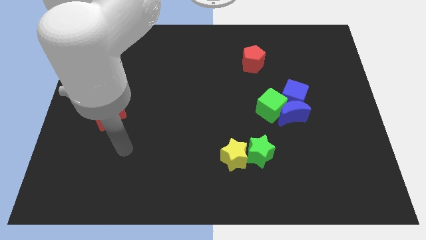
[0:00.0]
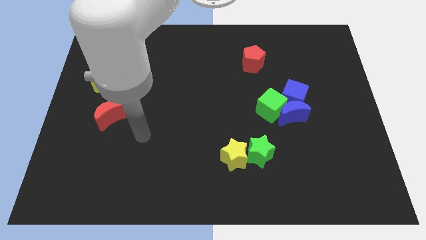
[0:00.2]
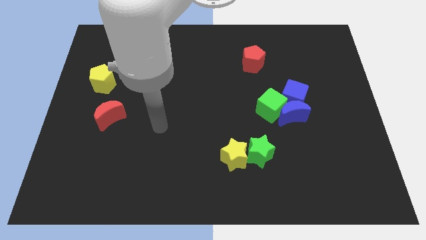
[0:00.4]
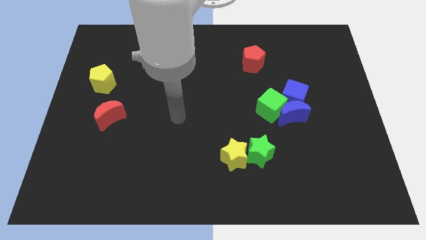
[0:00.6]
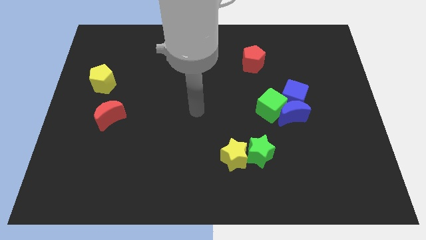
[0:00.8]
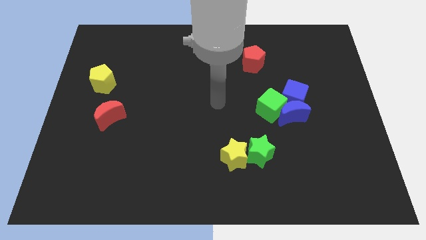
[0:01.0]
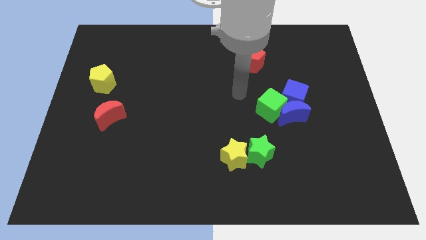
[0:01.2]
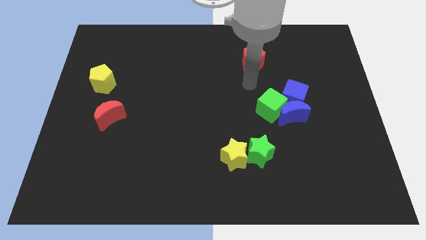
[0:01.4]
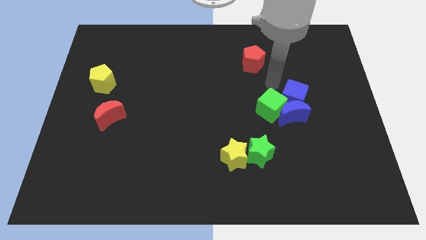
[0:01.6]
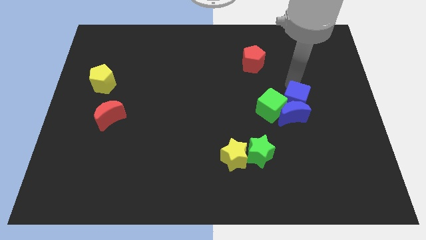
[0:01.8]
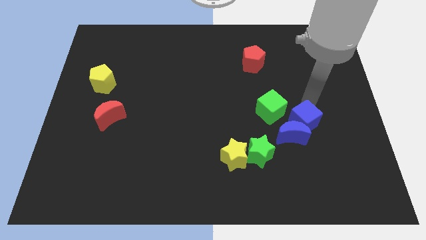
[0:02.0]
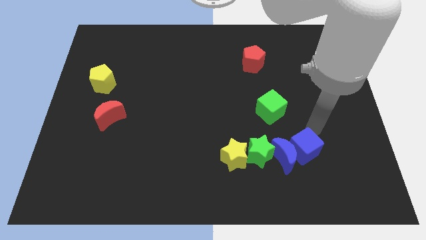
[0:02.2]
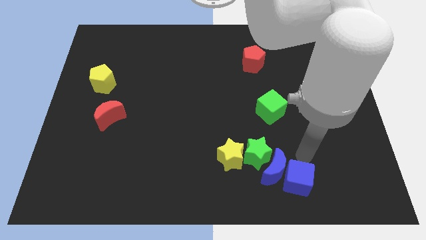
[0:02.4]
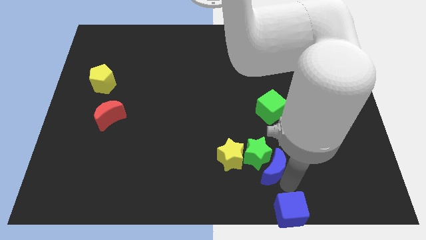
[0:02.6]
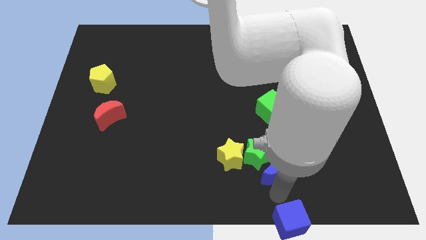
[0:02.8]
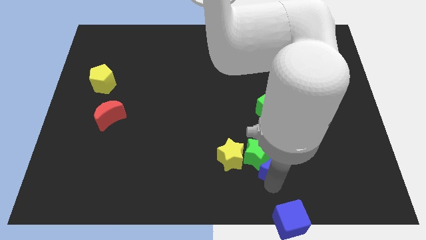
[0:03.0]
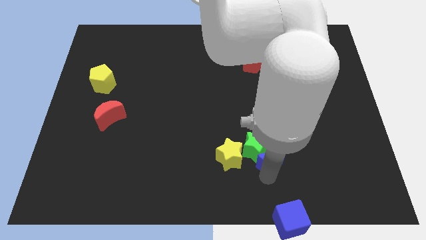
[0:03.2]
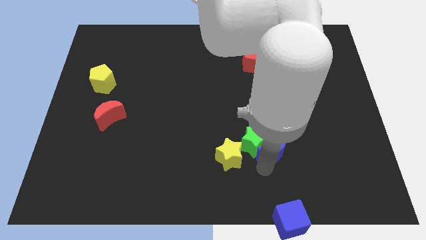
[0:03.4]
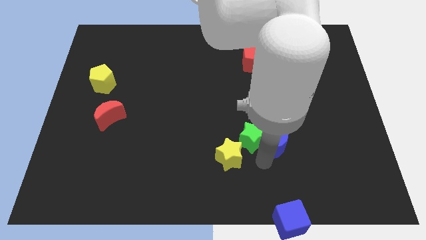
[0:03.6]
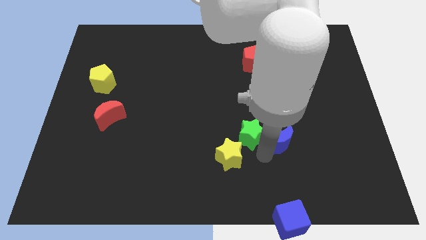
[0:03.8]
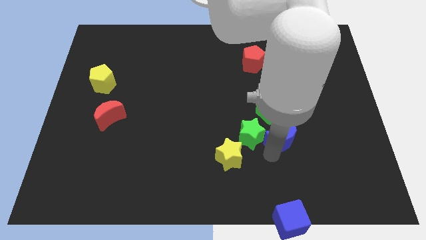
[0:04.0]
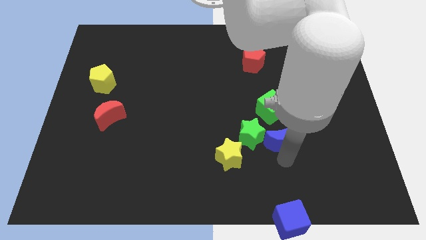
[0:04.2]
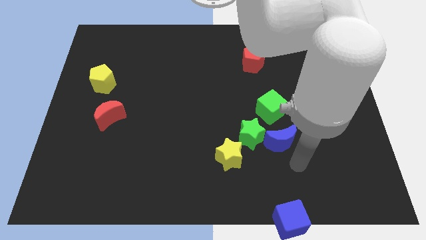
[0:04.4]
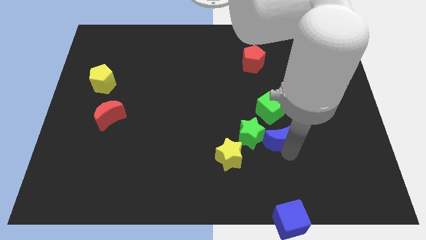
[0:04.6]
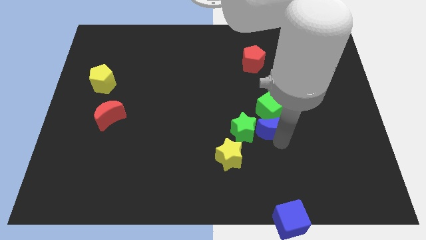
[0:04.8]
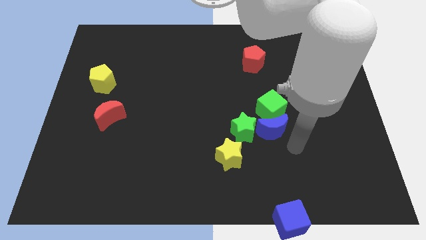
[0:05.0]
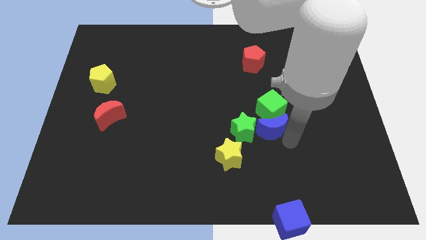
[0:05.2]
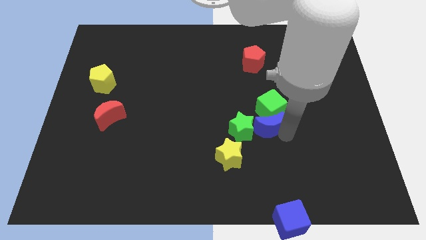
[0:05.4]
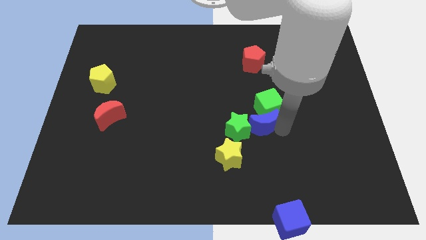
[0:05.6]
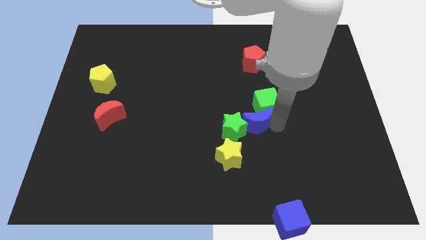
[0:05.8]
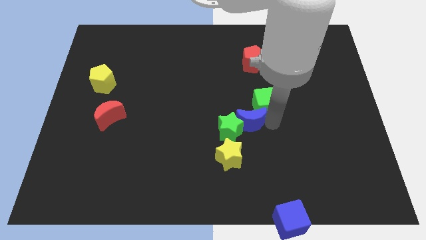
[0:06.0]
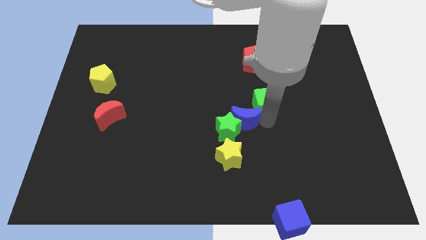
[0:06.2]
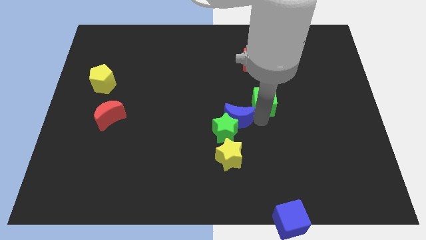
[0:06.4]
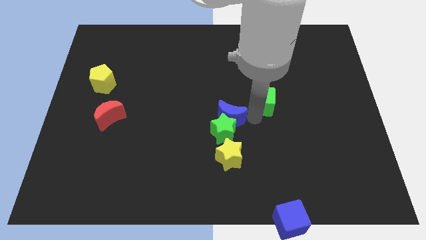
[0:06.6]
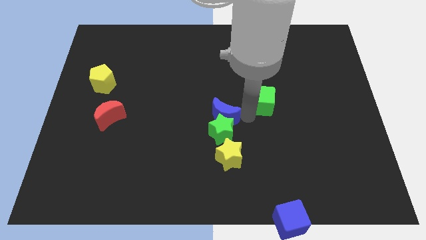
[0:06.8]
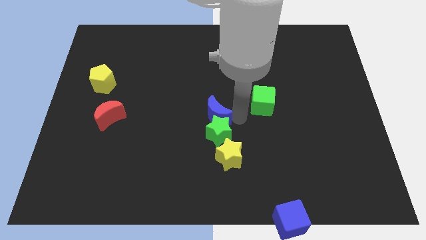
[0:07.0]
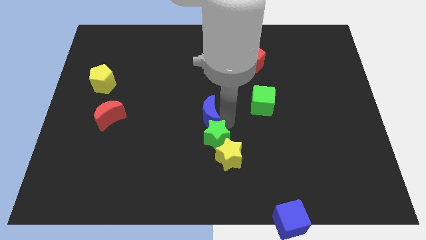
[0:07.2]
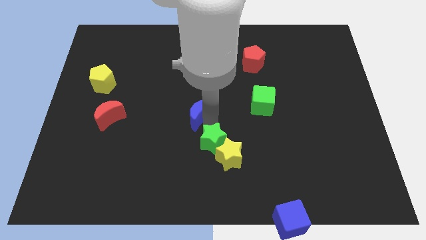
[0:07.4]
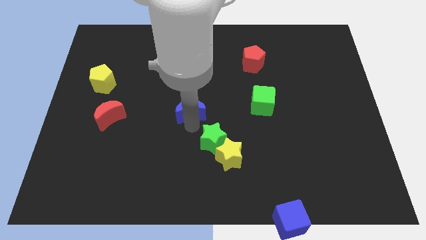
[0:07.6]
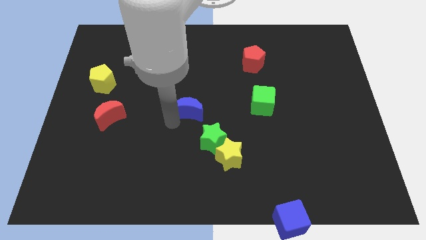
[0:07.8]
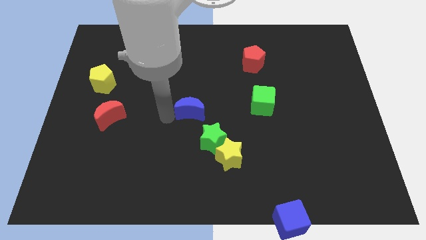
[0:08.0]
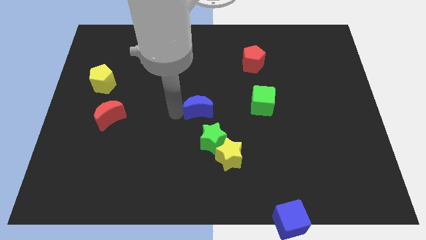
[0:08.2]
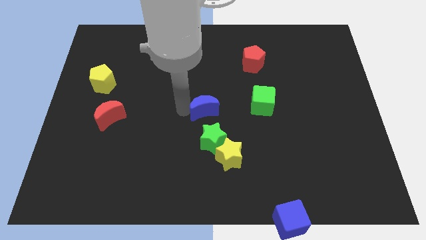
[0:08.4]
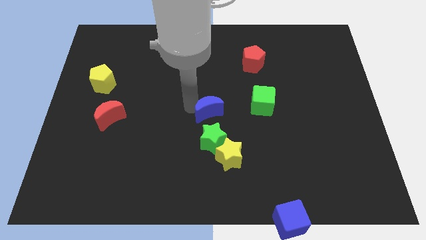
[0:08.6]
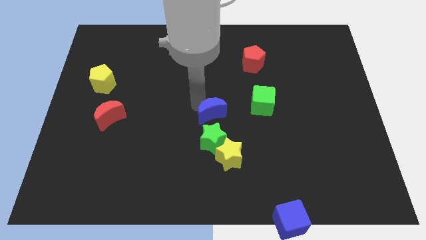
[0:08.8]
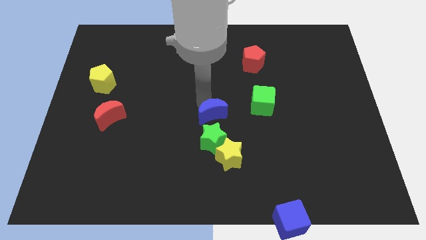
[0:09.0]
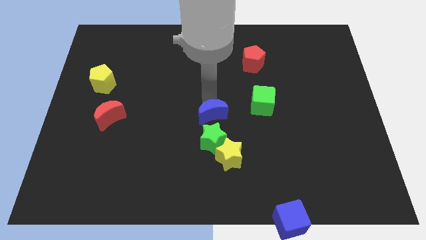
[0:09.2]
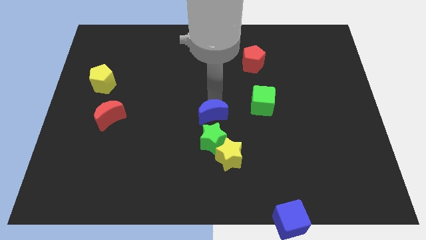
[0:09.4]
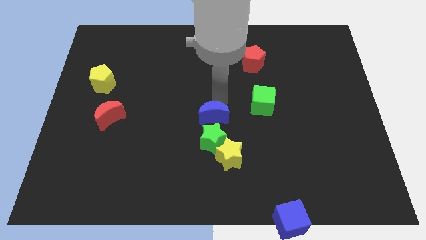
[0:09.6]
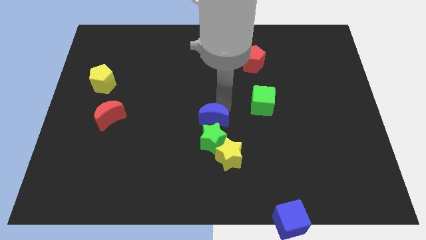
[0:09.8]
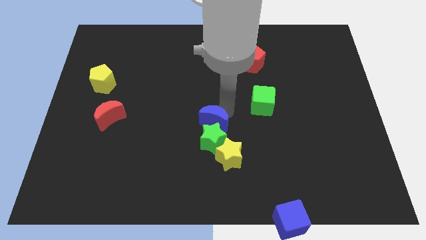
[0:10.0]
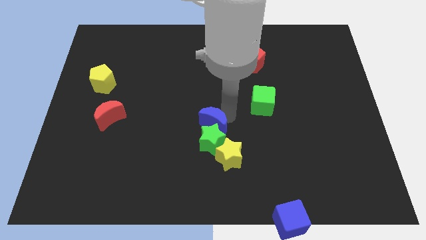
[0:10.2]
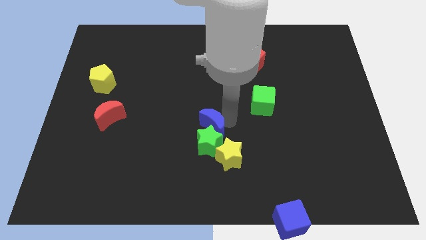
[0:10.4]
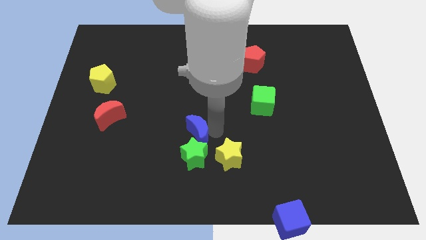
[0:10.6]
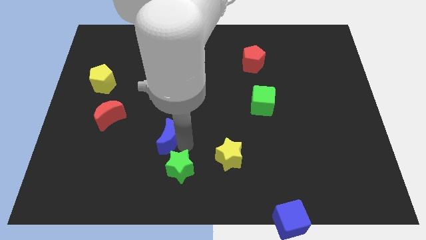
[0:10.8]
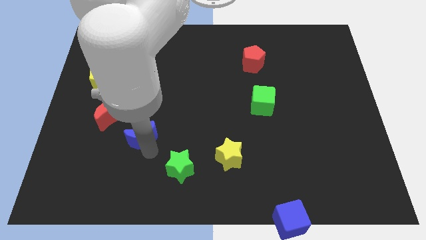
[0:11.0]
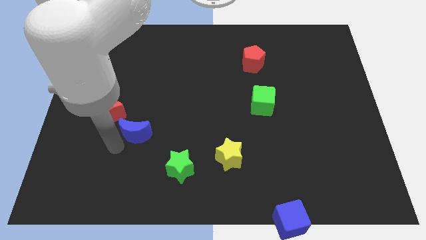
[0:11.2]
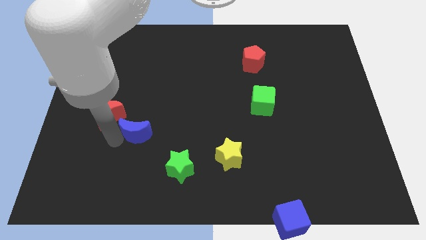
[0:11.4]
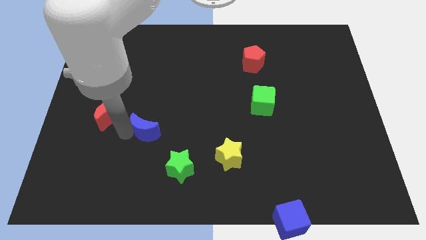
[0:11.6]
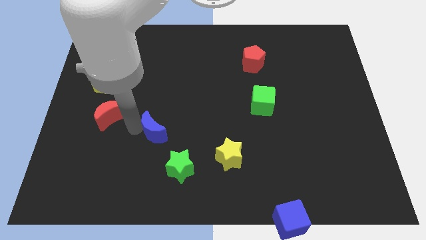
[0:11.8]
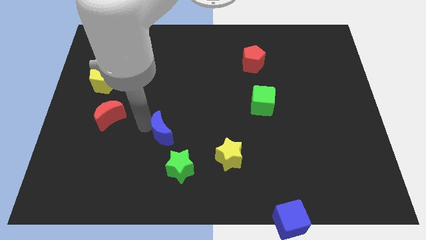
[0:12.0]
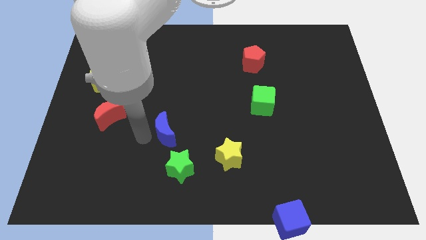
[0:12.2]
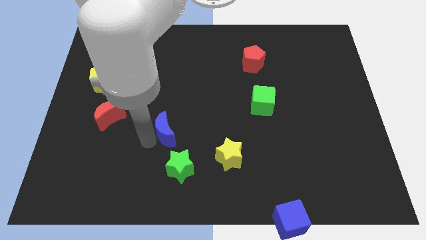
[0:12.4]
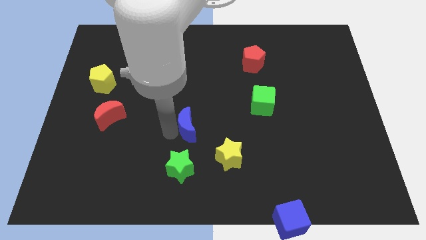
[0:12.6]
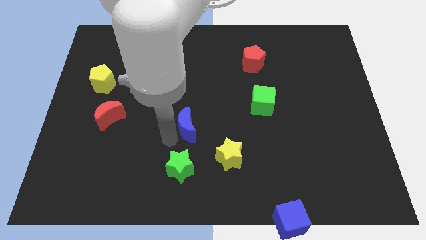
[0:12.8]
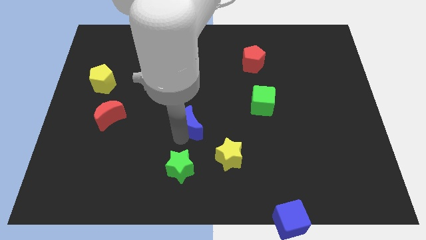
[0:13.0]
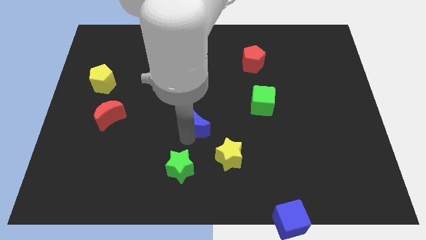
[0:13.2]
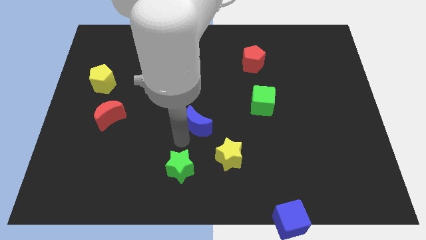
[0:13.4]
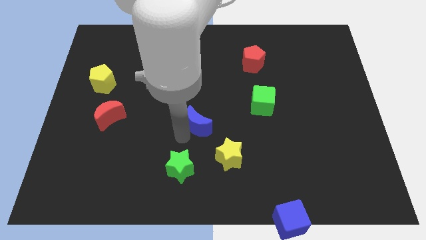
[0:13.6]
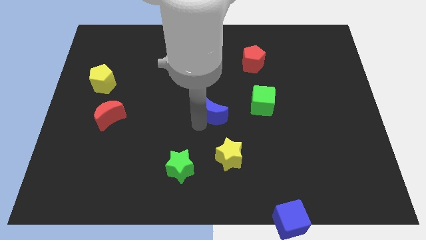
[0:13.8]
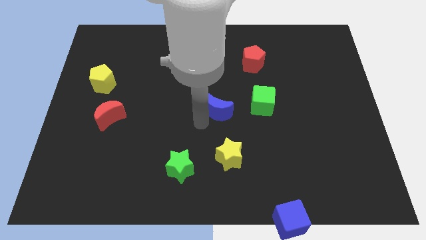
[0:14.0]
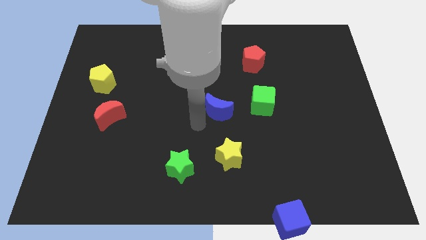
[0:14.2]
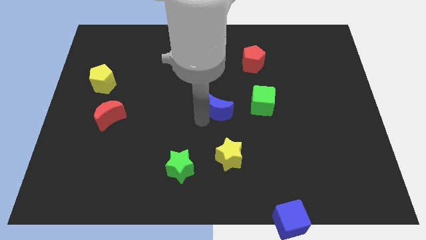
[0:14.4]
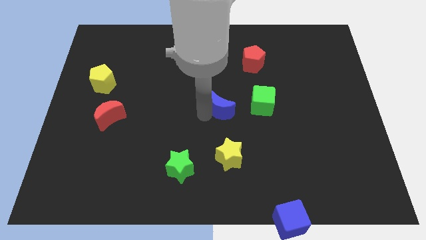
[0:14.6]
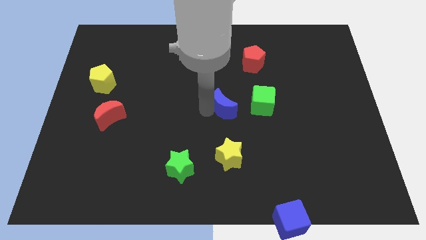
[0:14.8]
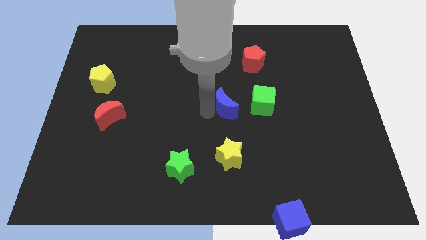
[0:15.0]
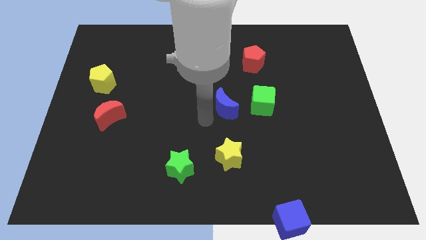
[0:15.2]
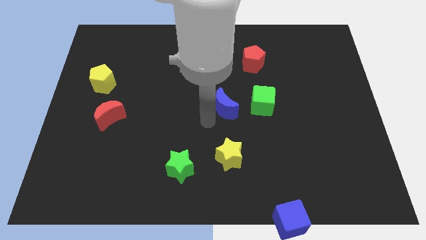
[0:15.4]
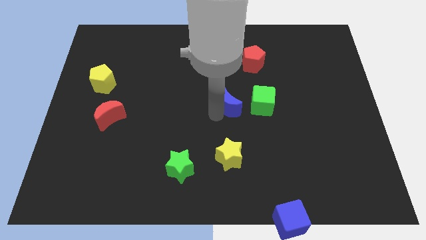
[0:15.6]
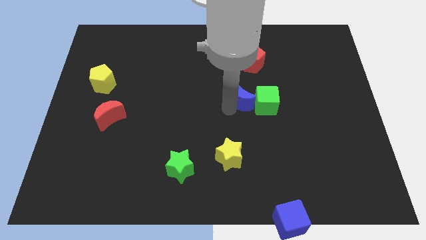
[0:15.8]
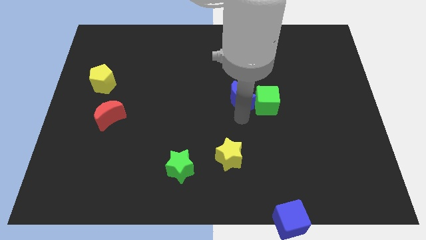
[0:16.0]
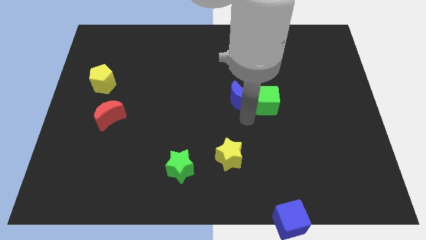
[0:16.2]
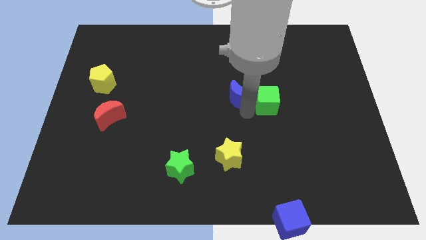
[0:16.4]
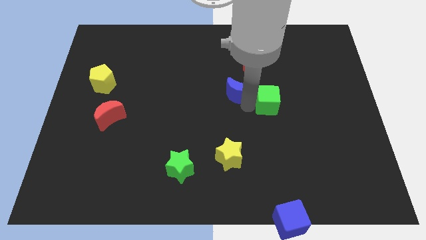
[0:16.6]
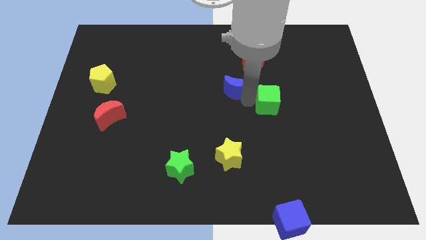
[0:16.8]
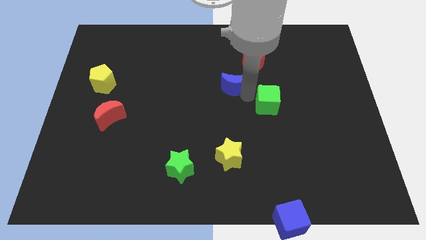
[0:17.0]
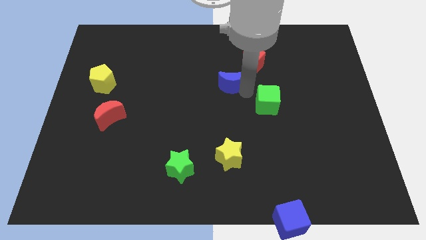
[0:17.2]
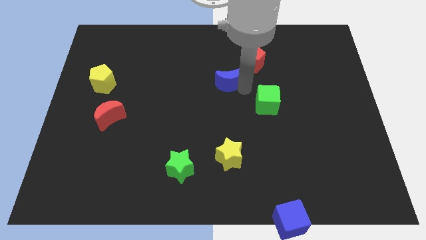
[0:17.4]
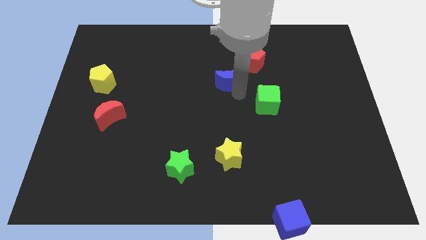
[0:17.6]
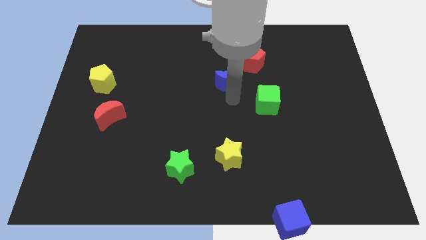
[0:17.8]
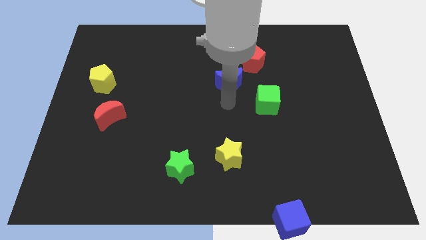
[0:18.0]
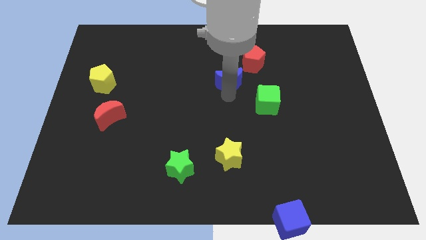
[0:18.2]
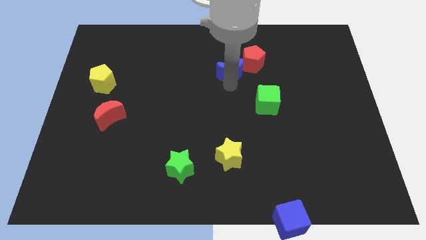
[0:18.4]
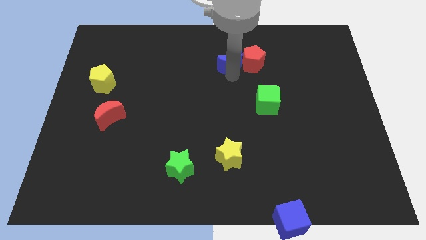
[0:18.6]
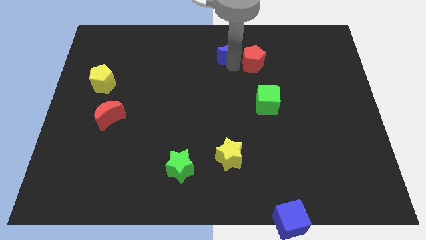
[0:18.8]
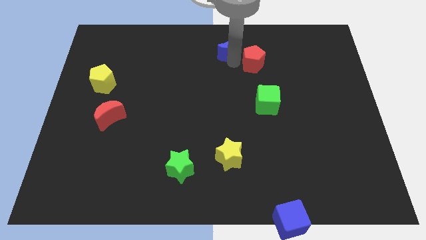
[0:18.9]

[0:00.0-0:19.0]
slide the blue moon to the towards your base
